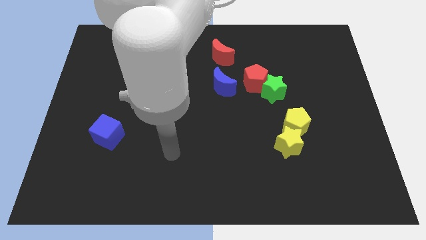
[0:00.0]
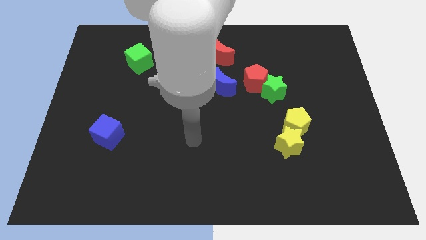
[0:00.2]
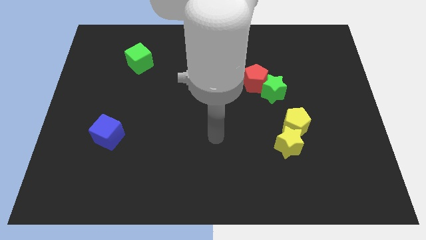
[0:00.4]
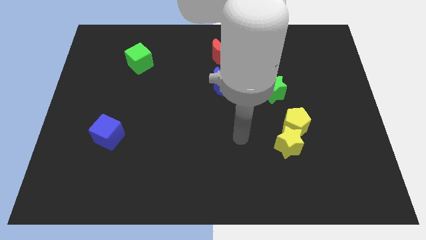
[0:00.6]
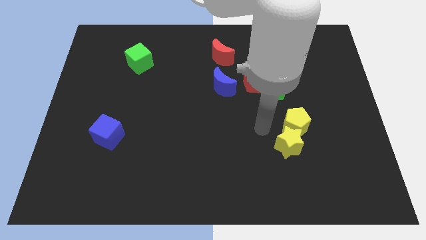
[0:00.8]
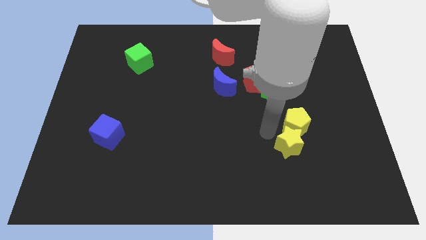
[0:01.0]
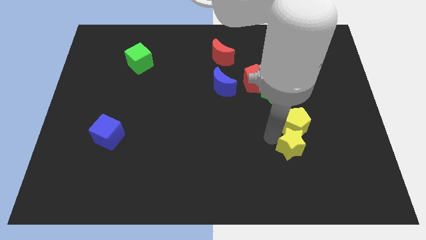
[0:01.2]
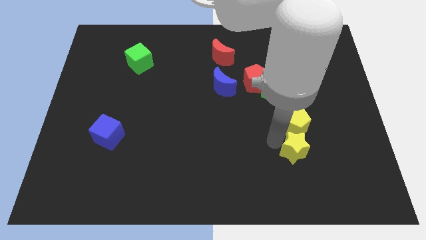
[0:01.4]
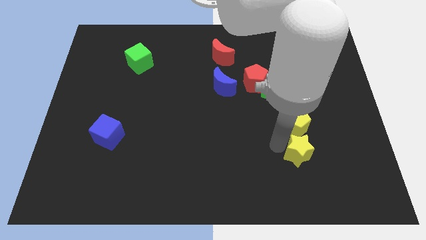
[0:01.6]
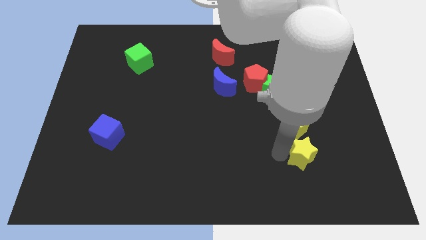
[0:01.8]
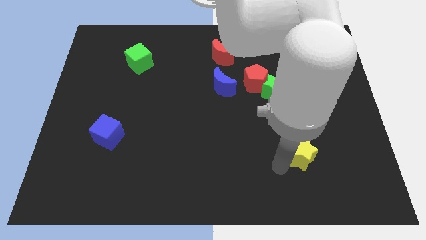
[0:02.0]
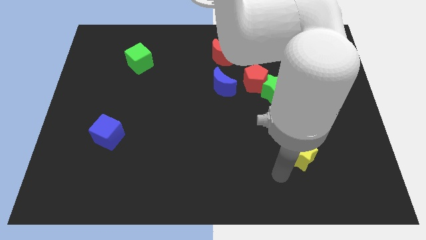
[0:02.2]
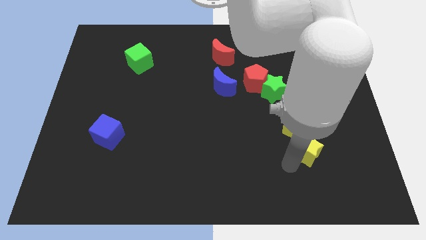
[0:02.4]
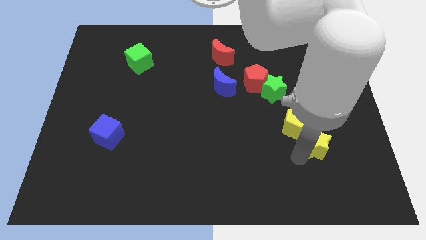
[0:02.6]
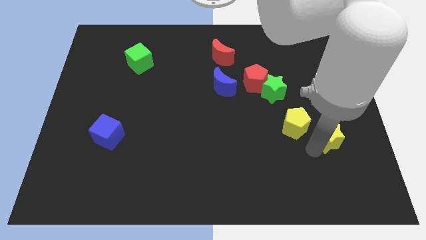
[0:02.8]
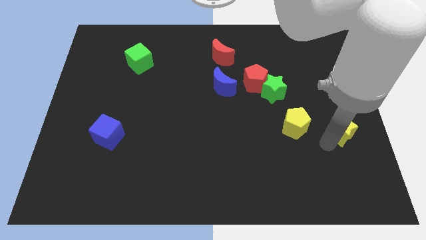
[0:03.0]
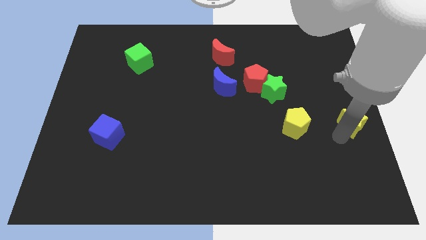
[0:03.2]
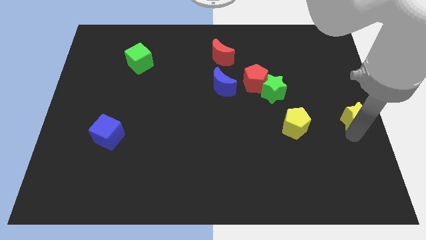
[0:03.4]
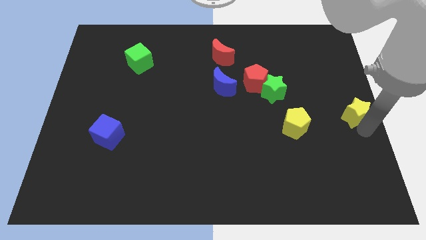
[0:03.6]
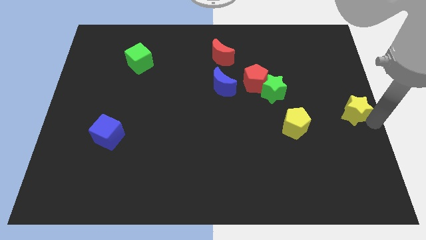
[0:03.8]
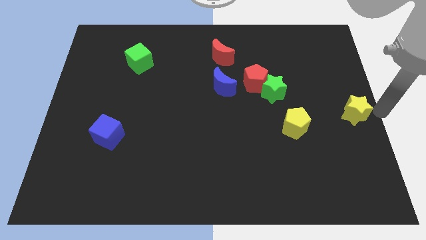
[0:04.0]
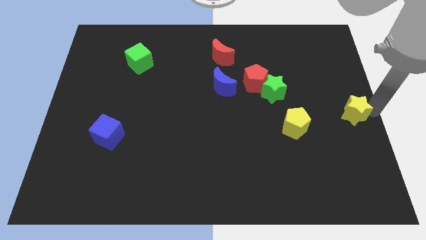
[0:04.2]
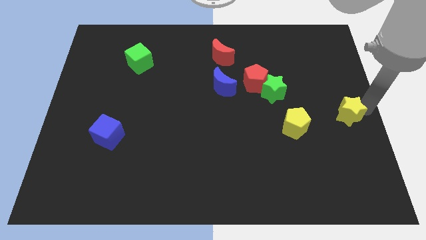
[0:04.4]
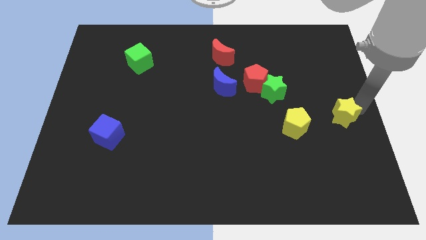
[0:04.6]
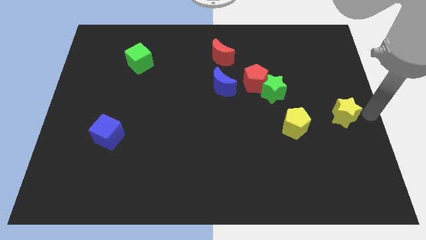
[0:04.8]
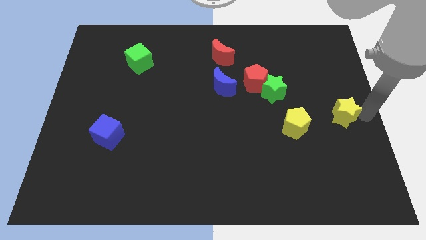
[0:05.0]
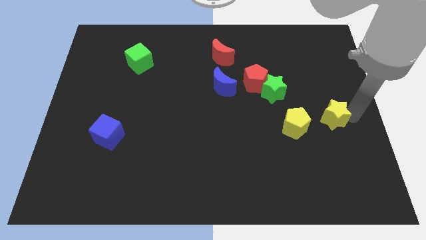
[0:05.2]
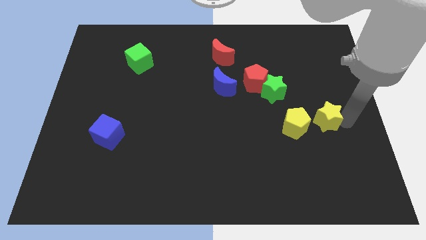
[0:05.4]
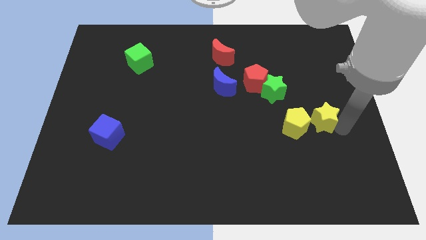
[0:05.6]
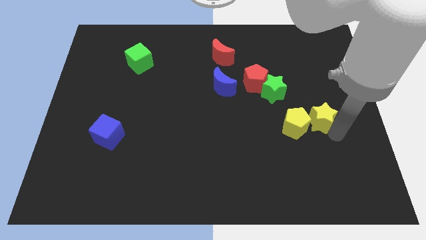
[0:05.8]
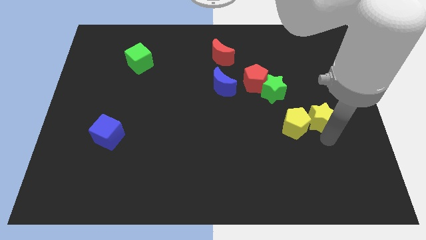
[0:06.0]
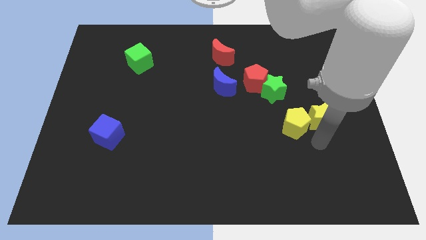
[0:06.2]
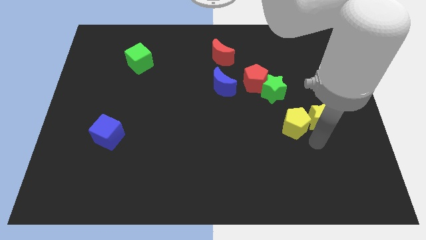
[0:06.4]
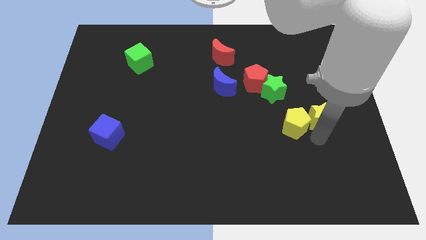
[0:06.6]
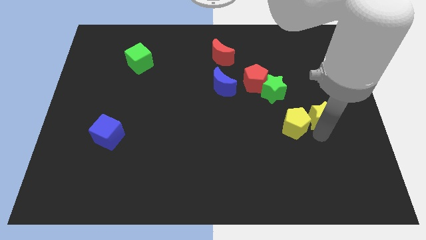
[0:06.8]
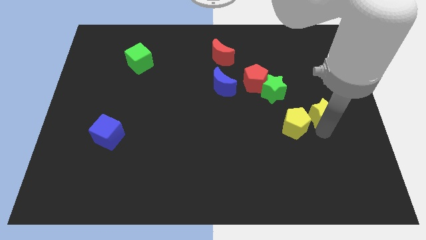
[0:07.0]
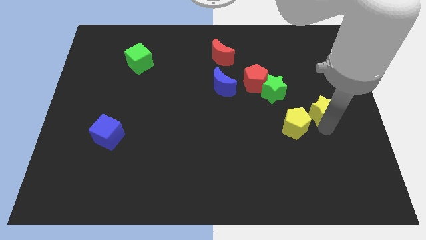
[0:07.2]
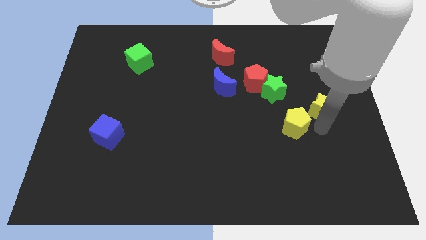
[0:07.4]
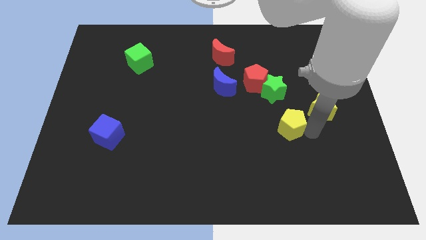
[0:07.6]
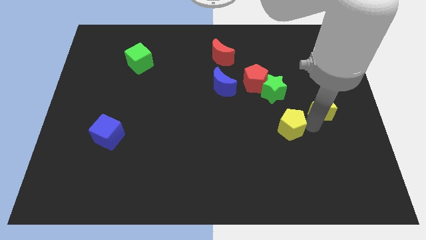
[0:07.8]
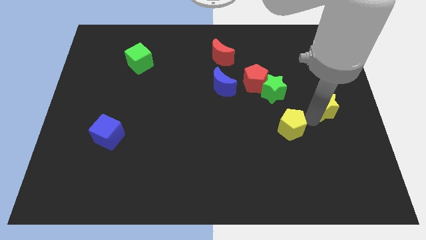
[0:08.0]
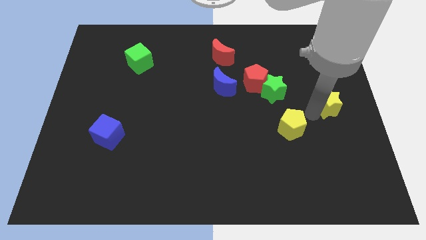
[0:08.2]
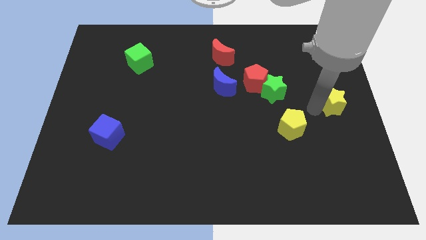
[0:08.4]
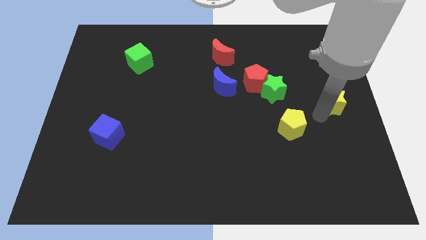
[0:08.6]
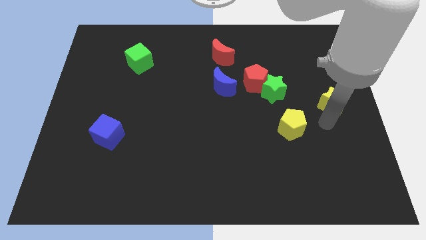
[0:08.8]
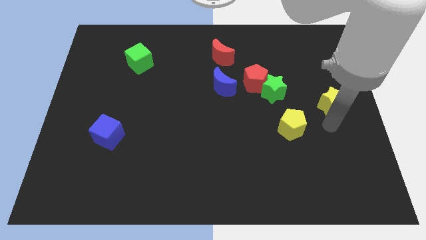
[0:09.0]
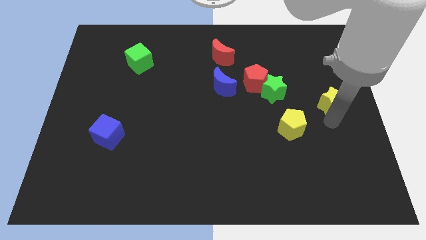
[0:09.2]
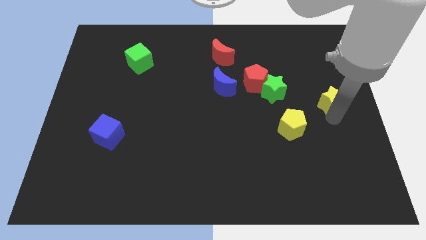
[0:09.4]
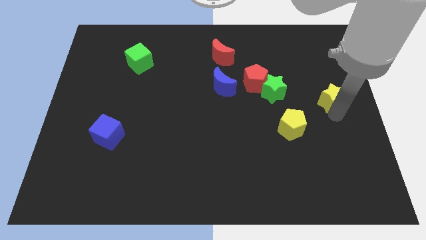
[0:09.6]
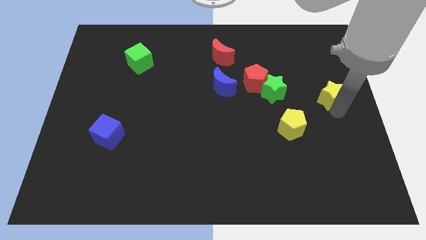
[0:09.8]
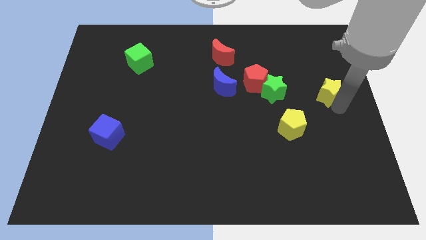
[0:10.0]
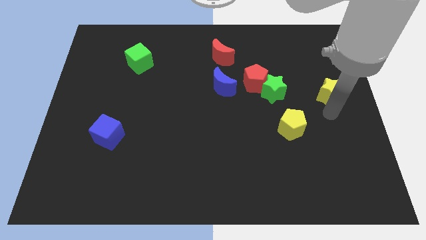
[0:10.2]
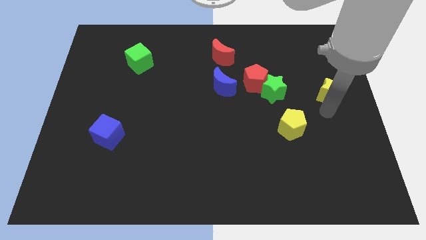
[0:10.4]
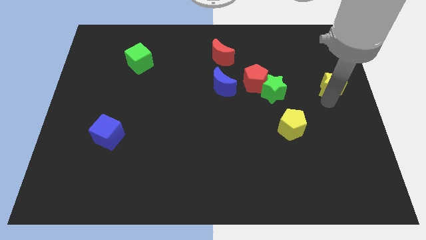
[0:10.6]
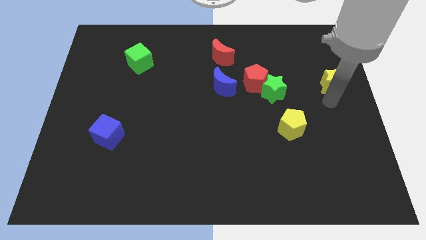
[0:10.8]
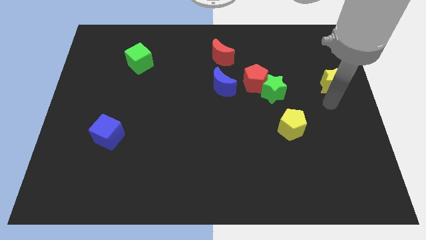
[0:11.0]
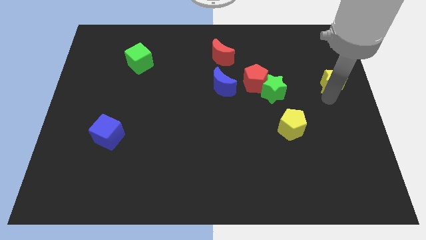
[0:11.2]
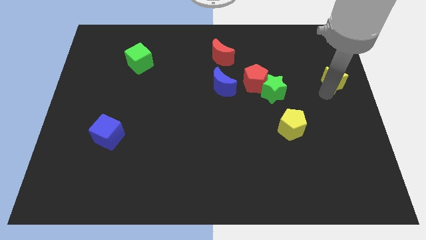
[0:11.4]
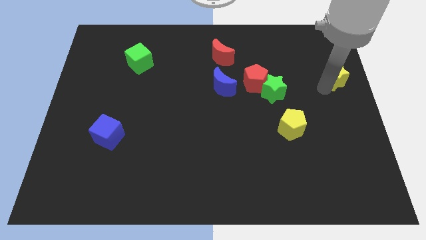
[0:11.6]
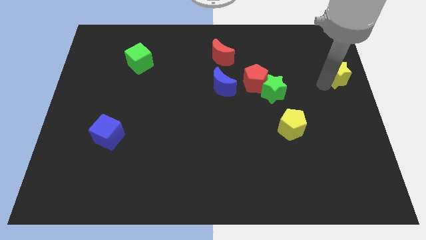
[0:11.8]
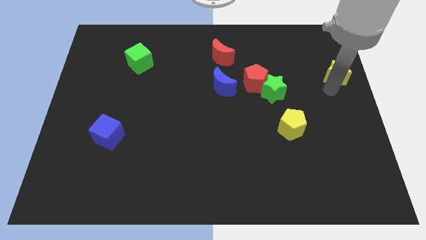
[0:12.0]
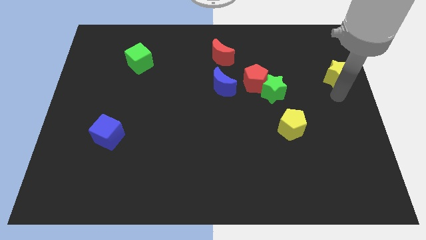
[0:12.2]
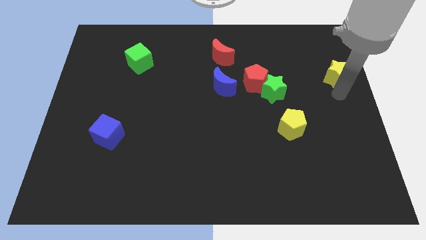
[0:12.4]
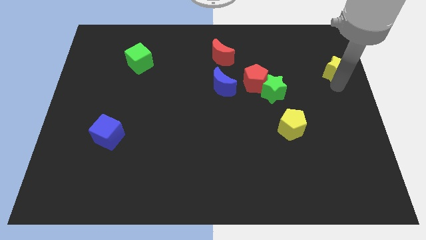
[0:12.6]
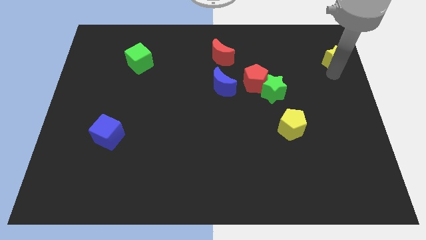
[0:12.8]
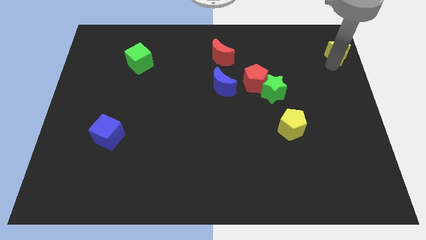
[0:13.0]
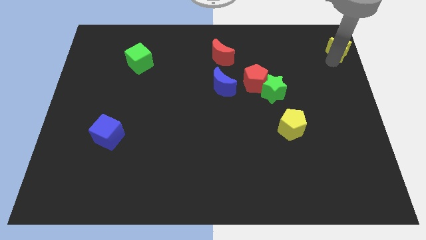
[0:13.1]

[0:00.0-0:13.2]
put the yellow star to the top right of the board
